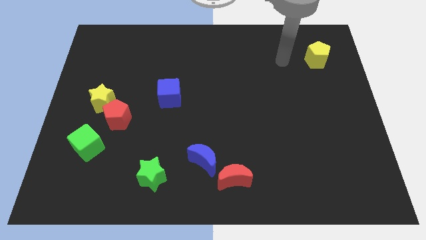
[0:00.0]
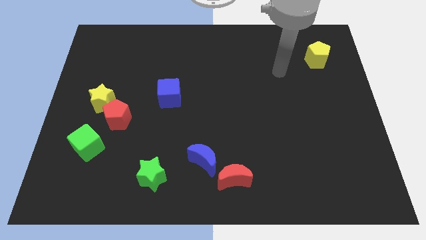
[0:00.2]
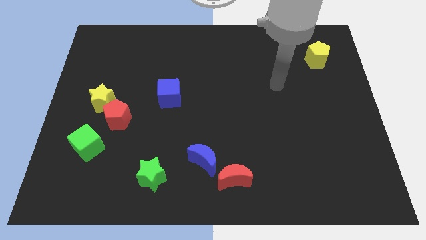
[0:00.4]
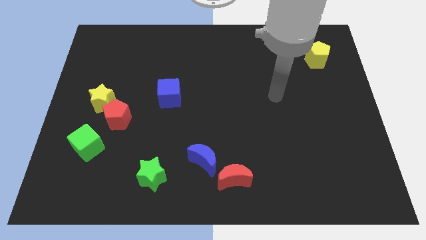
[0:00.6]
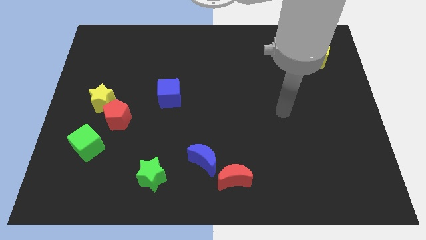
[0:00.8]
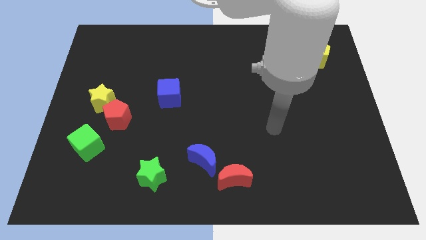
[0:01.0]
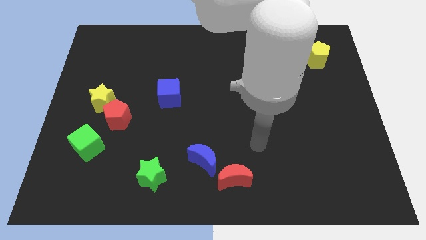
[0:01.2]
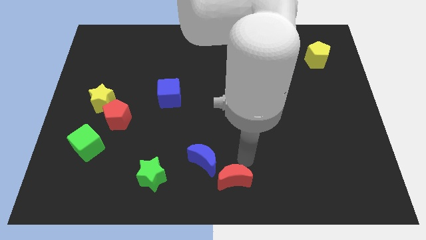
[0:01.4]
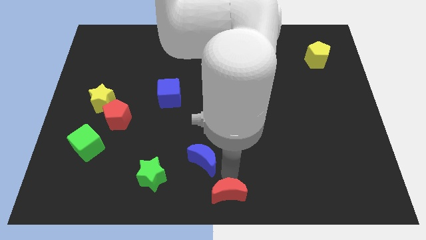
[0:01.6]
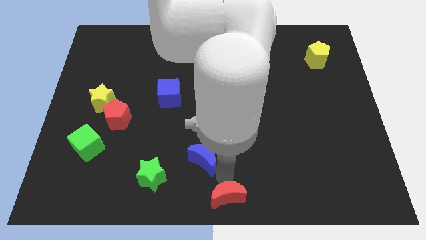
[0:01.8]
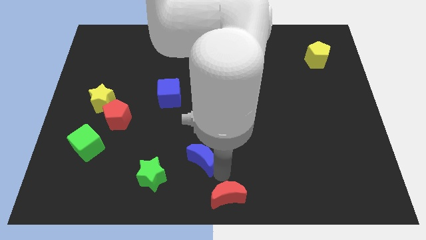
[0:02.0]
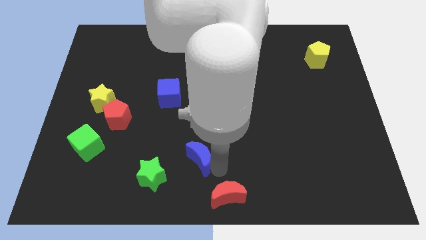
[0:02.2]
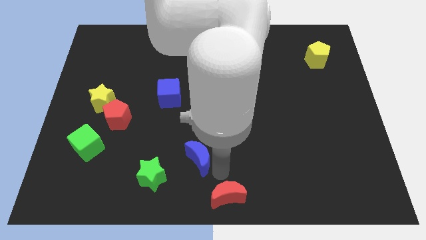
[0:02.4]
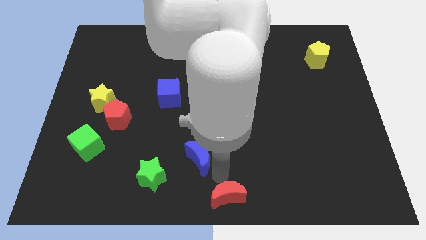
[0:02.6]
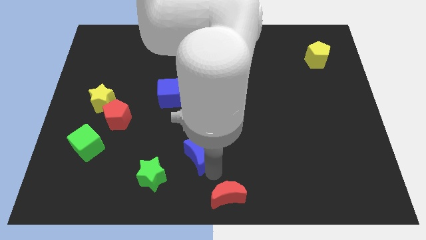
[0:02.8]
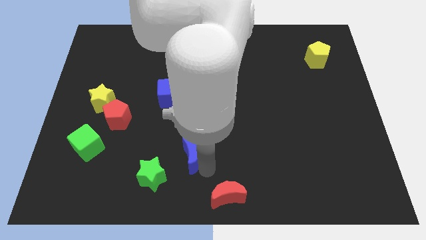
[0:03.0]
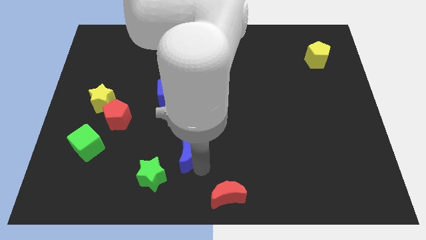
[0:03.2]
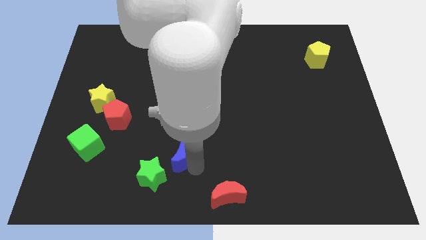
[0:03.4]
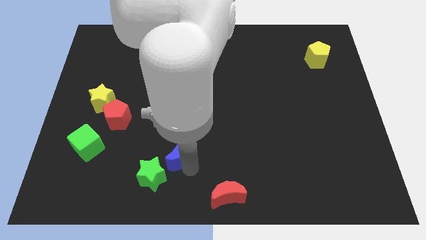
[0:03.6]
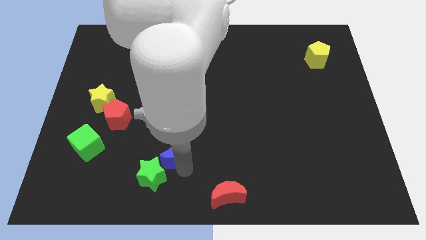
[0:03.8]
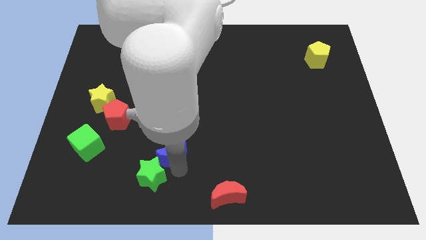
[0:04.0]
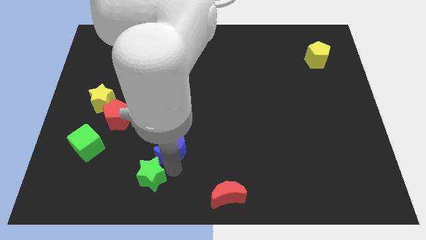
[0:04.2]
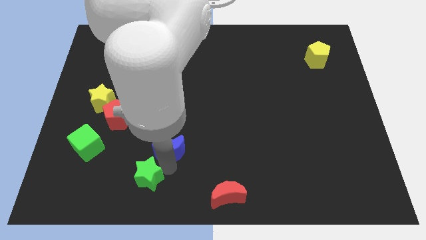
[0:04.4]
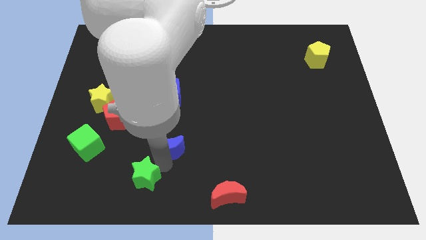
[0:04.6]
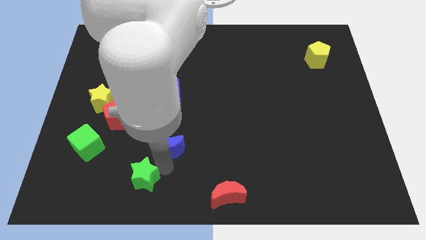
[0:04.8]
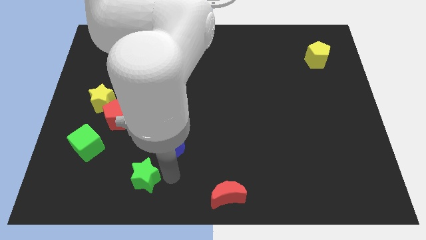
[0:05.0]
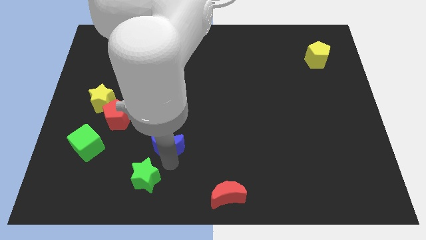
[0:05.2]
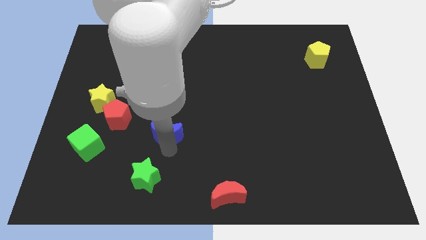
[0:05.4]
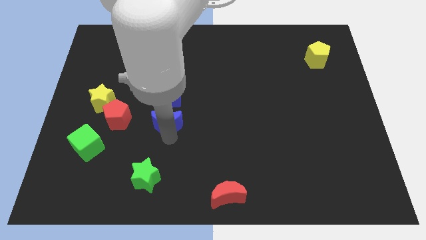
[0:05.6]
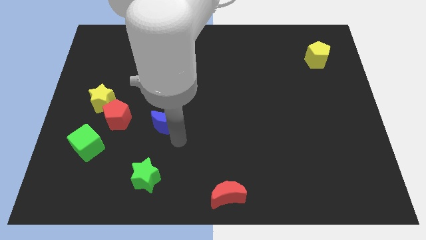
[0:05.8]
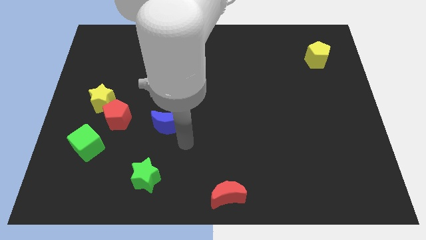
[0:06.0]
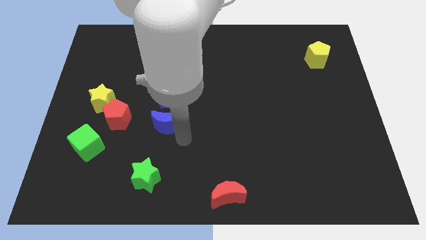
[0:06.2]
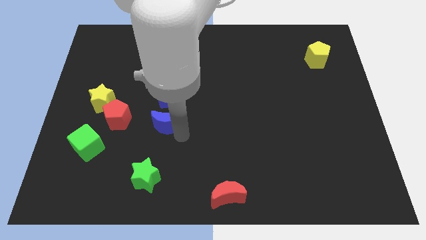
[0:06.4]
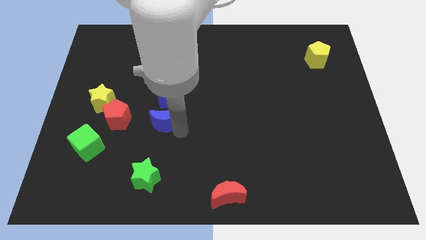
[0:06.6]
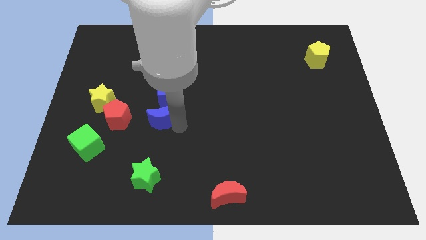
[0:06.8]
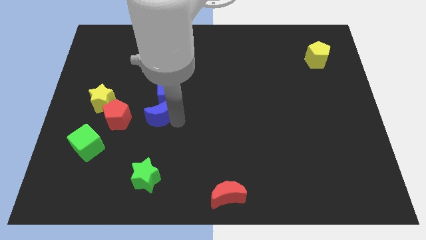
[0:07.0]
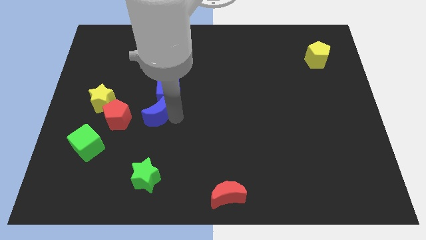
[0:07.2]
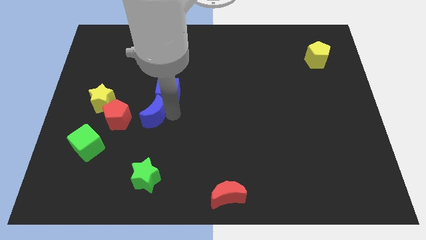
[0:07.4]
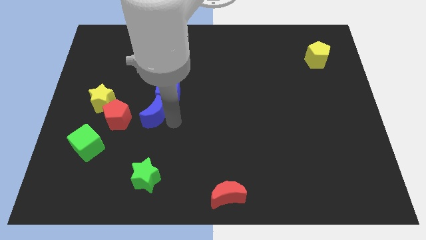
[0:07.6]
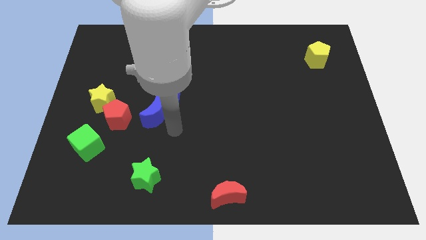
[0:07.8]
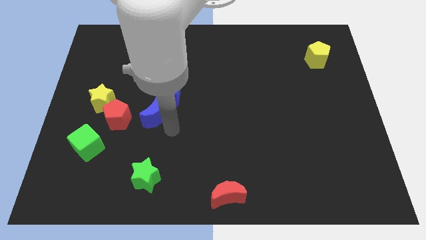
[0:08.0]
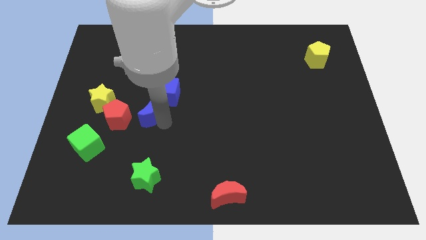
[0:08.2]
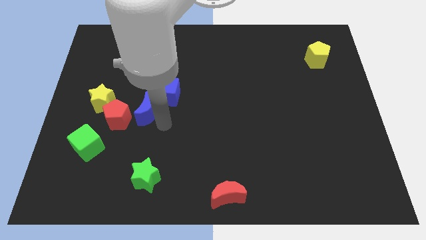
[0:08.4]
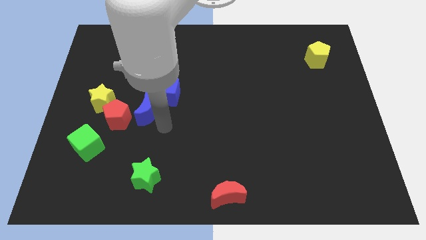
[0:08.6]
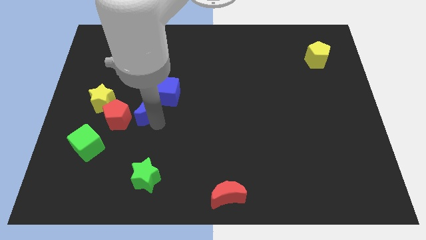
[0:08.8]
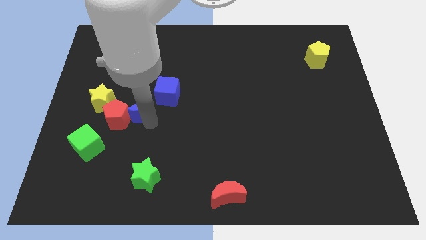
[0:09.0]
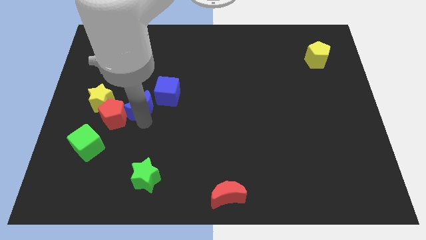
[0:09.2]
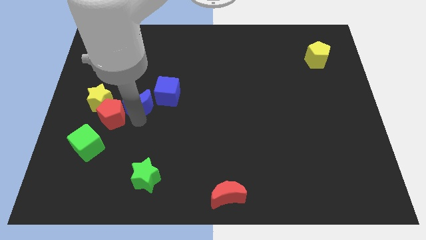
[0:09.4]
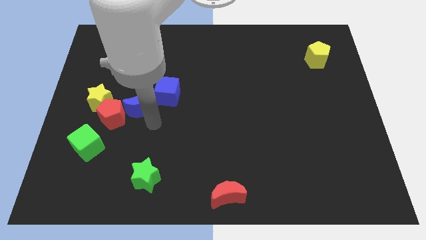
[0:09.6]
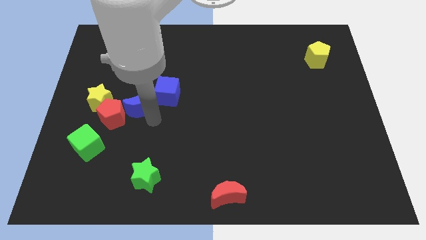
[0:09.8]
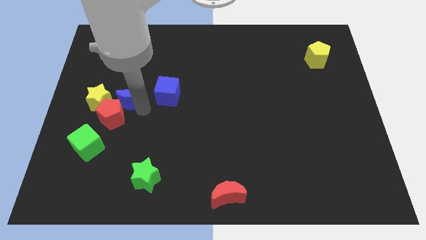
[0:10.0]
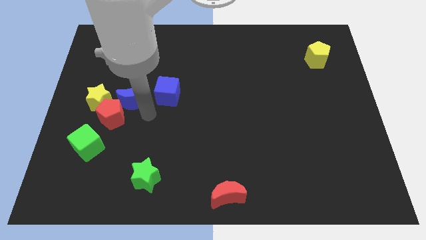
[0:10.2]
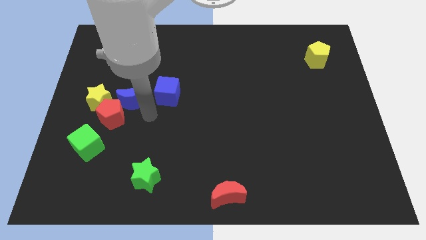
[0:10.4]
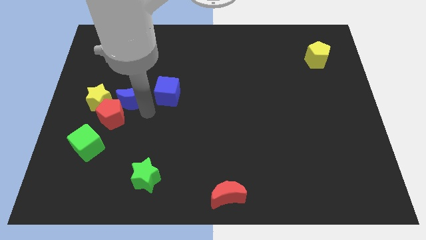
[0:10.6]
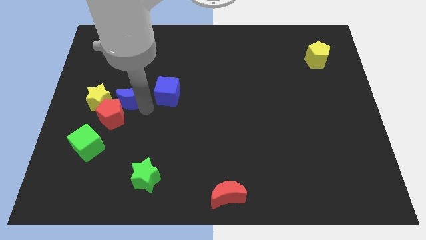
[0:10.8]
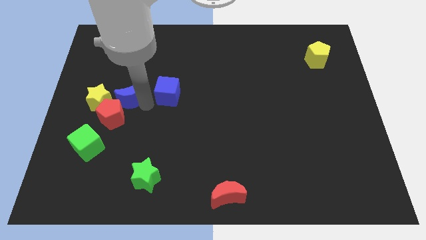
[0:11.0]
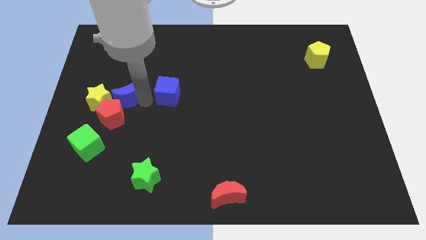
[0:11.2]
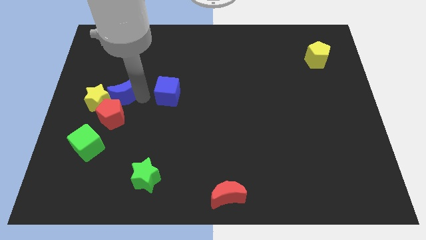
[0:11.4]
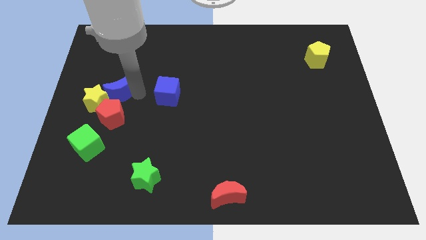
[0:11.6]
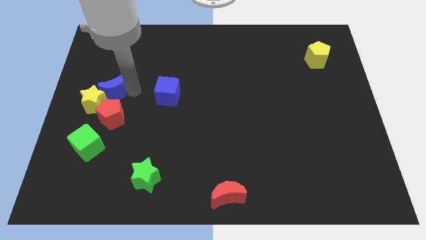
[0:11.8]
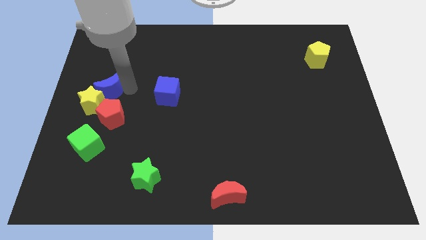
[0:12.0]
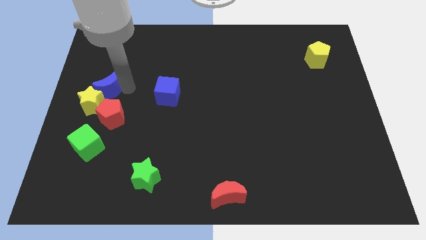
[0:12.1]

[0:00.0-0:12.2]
push the blue moon to the left side of the board
